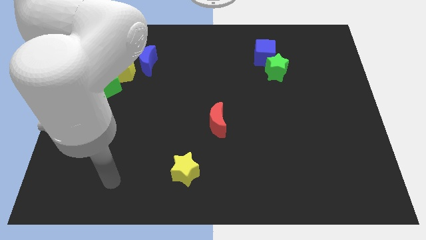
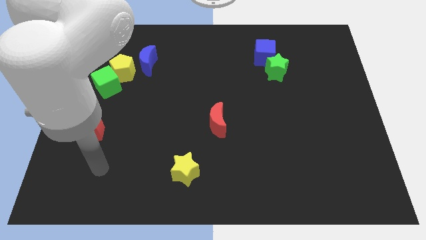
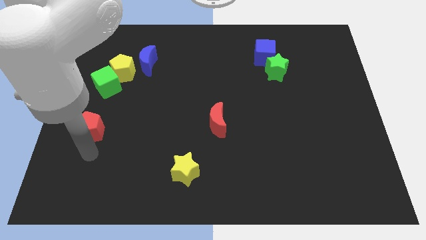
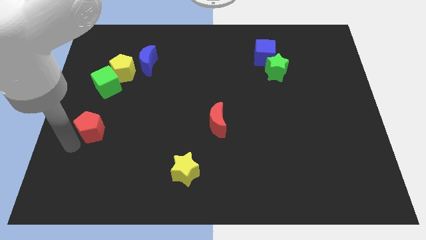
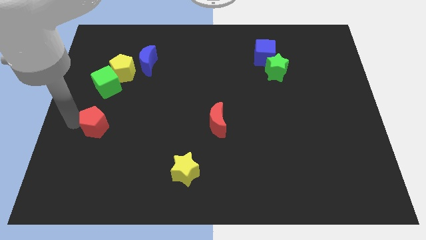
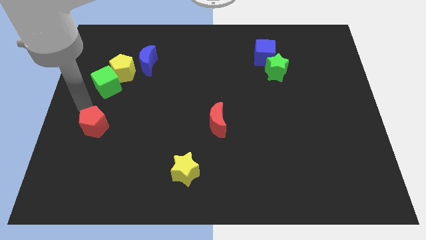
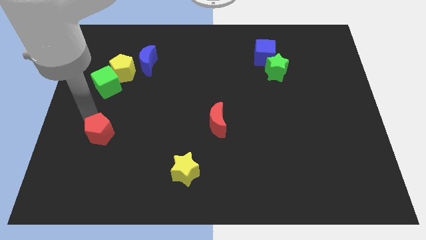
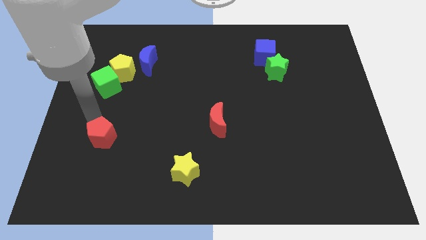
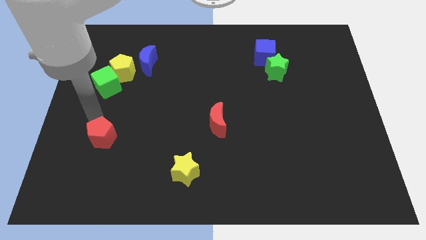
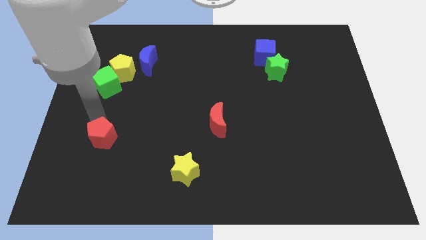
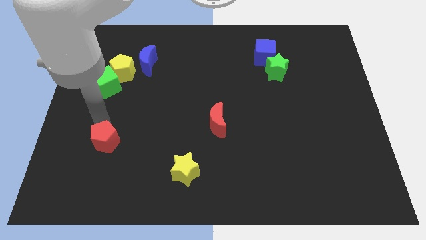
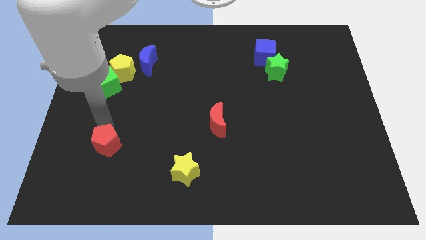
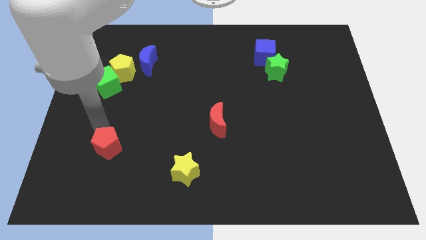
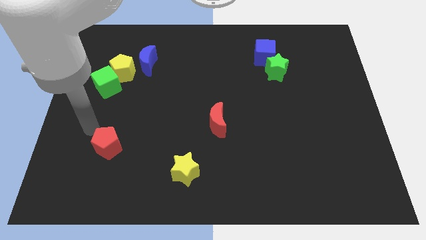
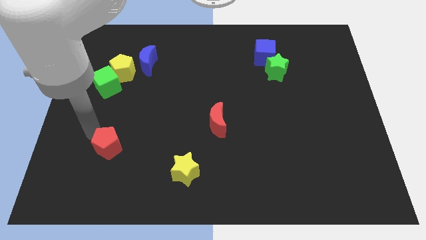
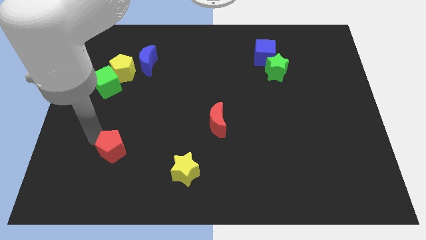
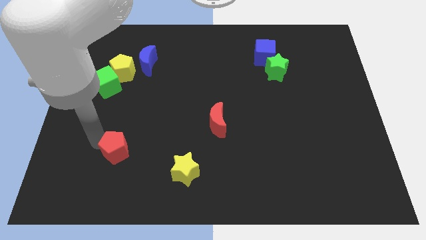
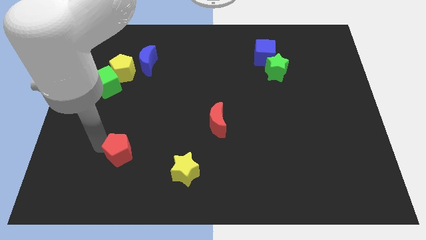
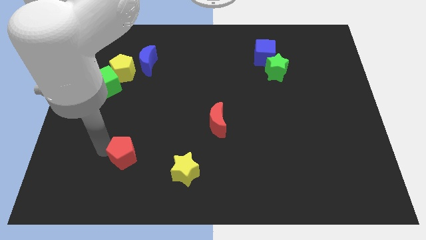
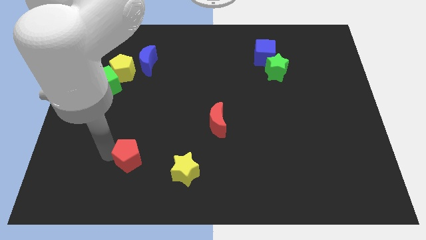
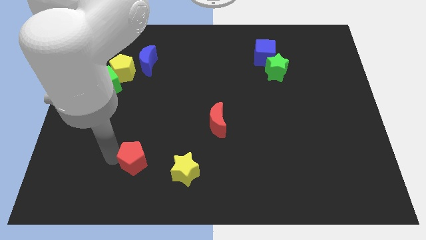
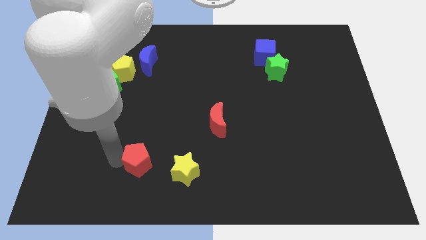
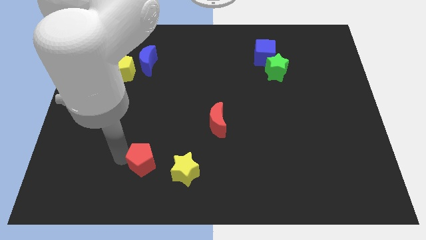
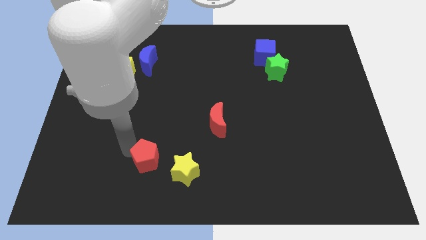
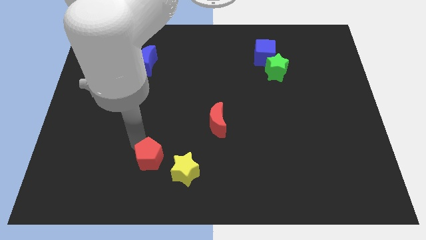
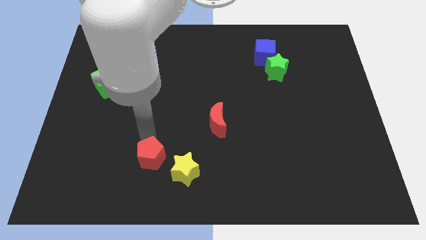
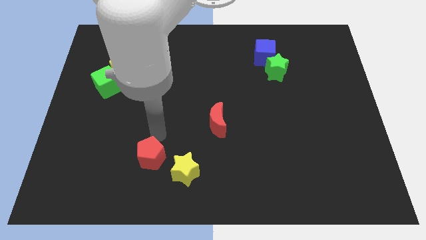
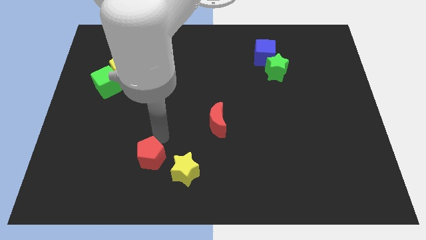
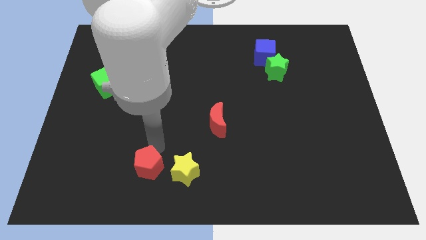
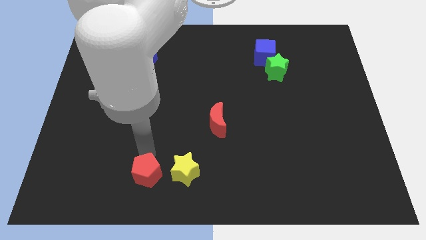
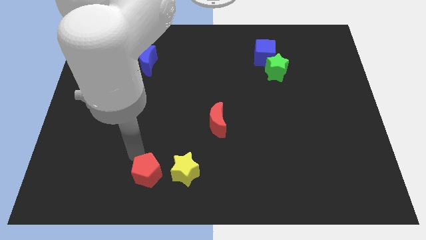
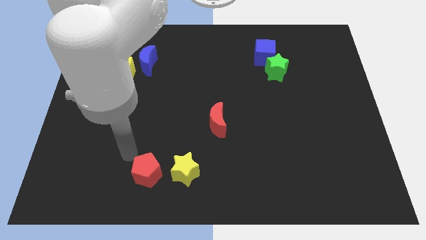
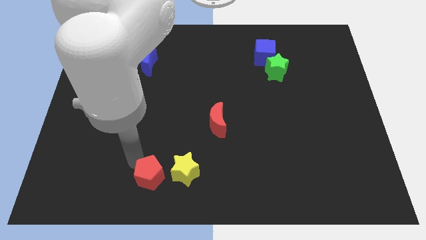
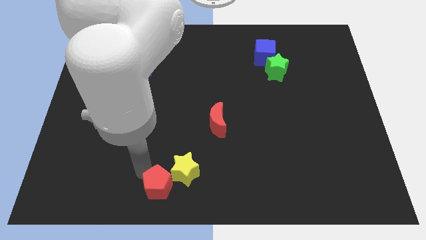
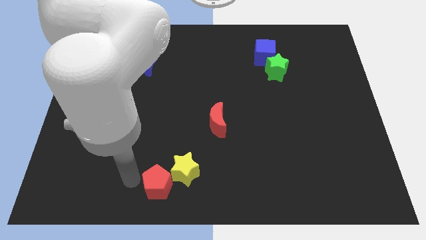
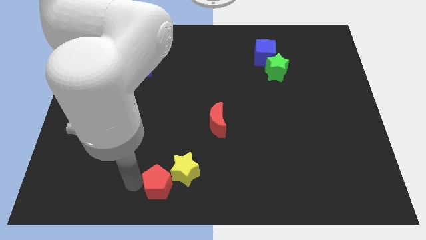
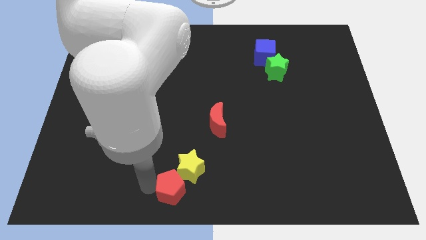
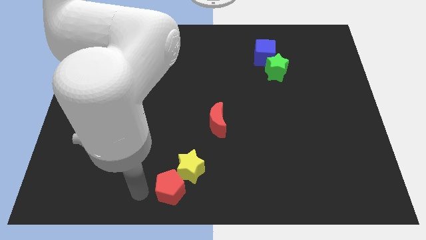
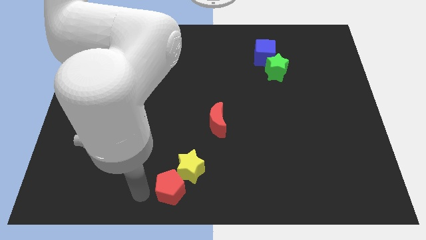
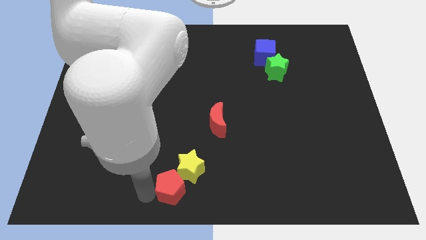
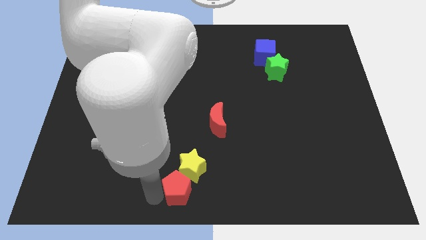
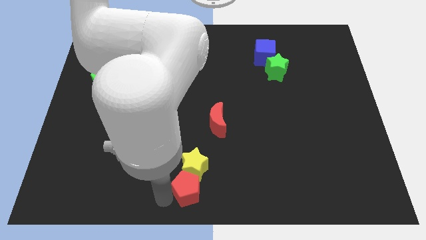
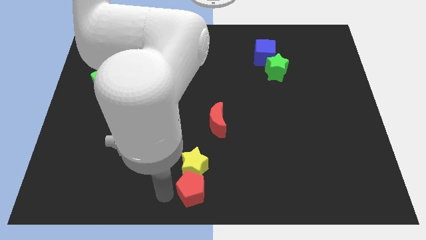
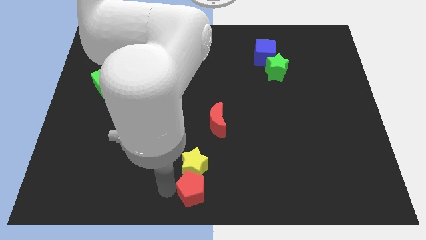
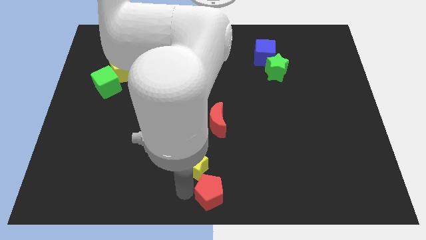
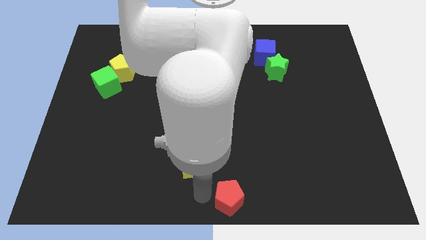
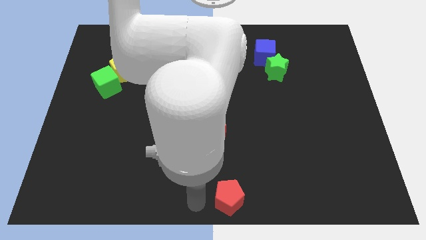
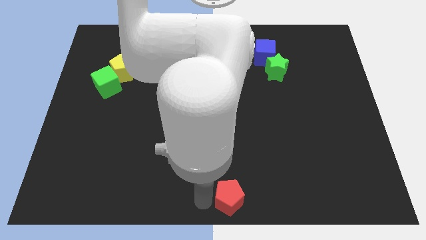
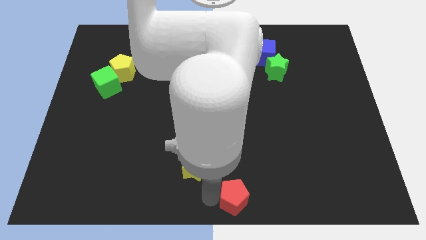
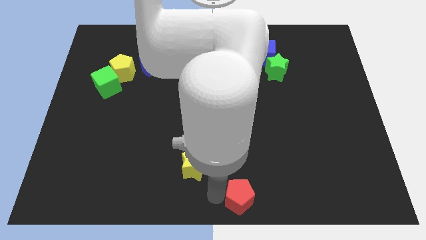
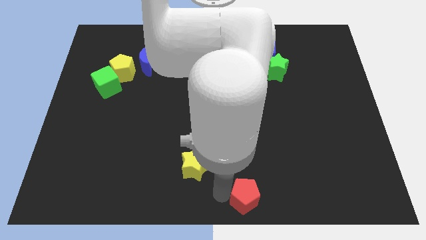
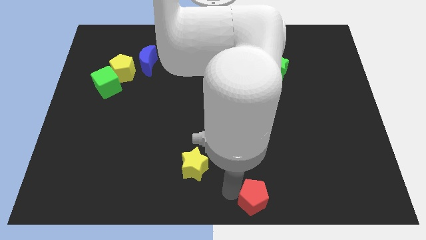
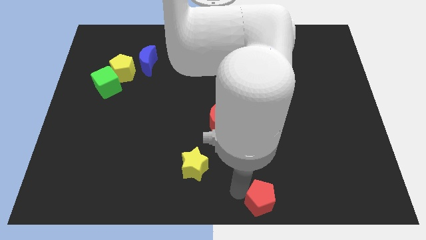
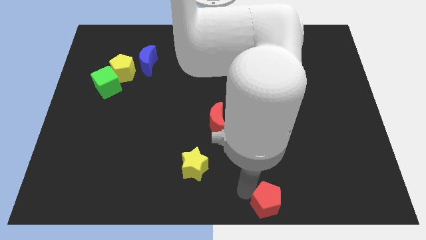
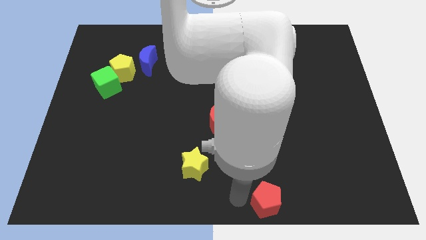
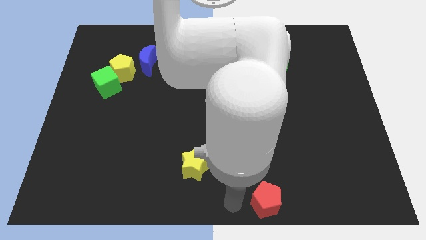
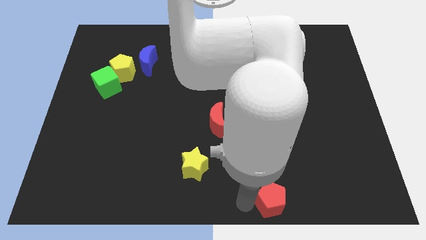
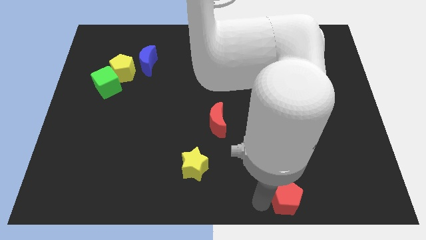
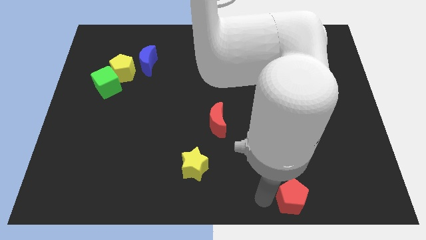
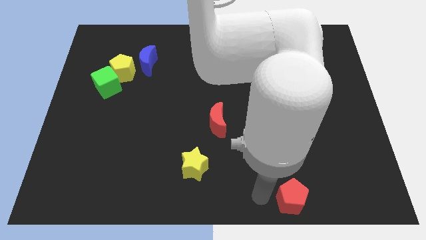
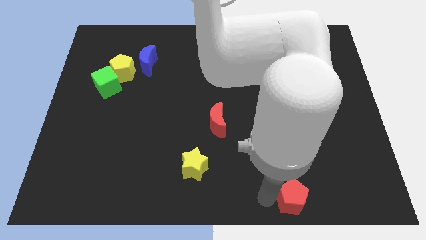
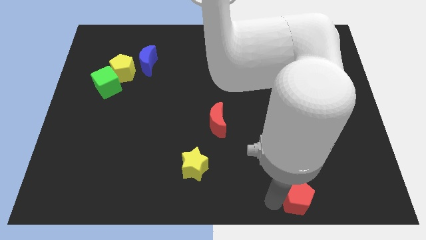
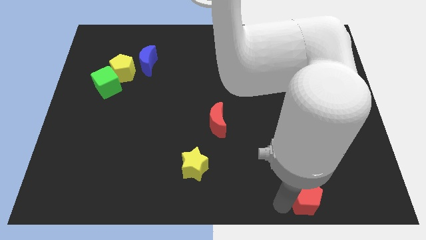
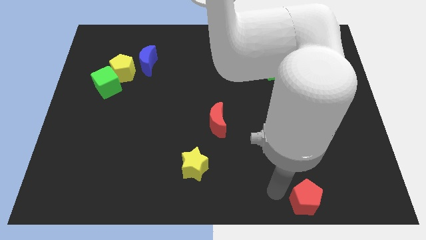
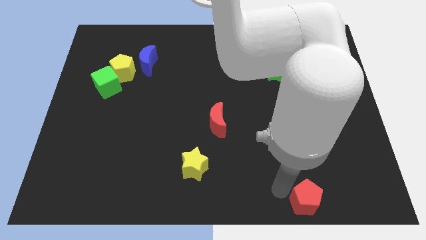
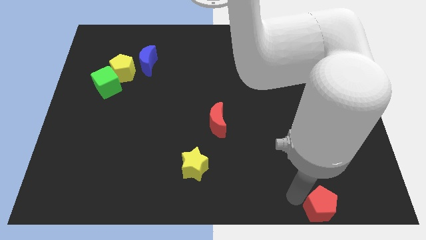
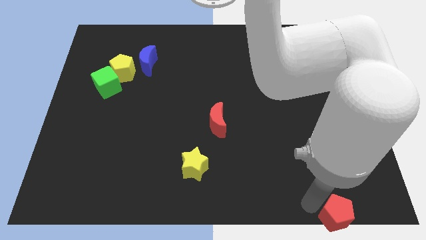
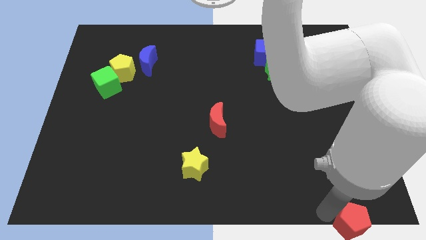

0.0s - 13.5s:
push the red pentagon to the bottom right corner

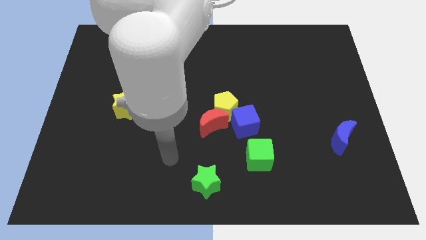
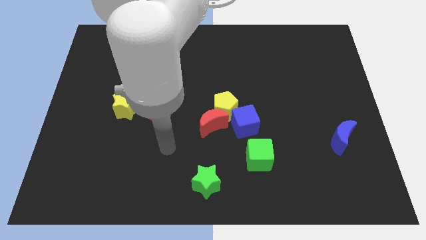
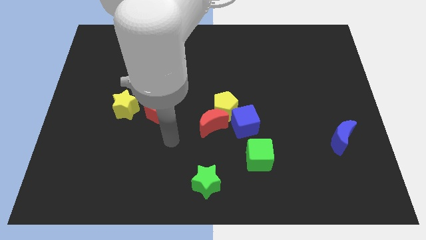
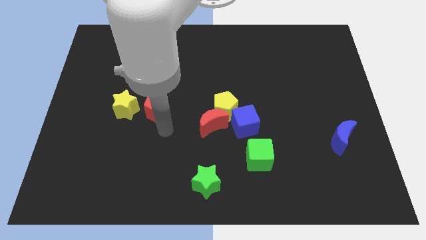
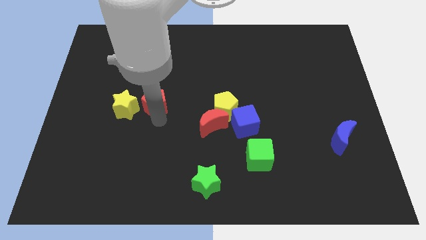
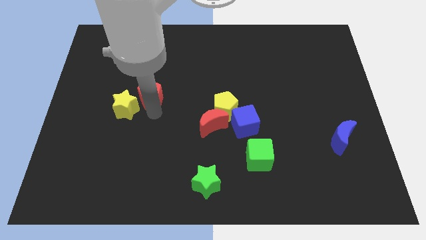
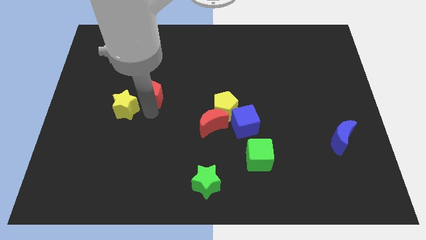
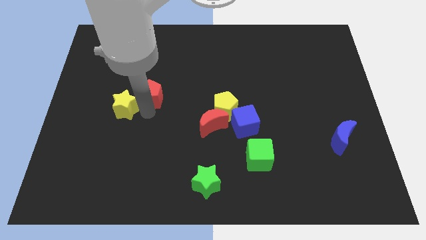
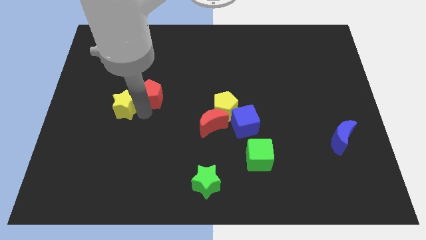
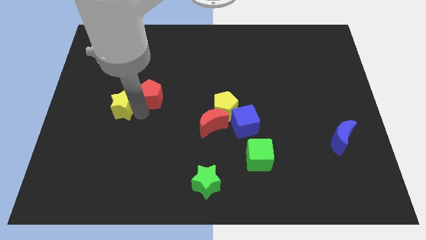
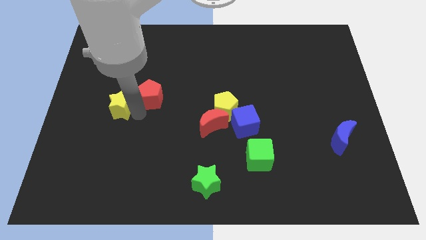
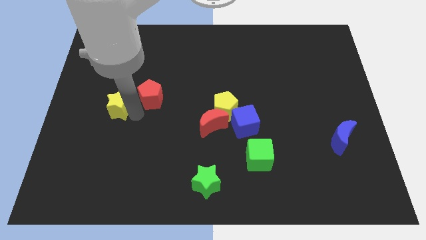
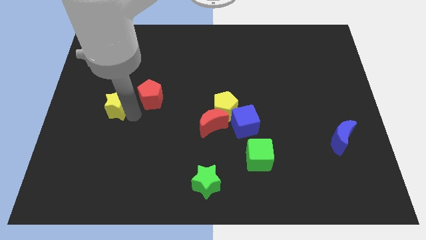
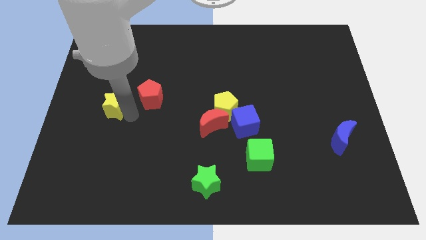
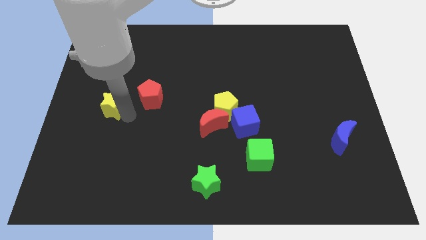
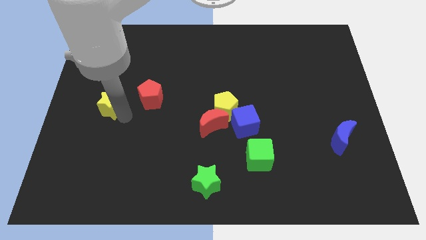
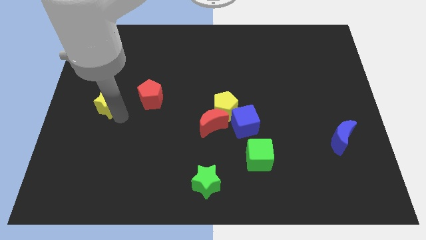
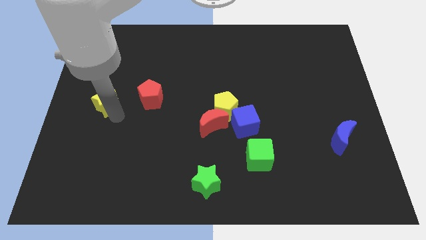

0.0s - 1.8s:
move the yellow star to the left side of the board
